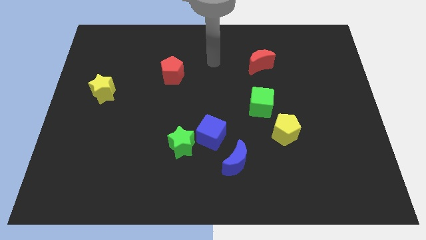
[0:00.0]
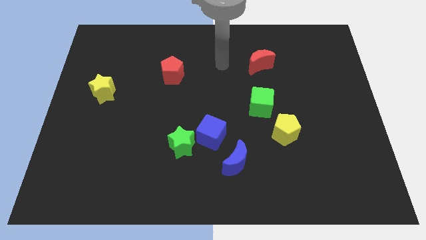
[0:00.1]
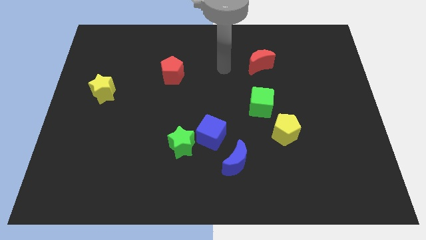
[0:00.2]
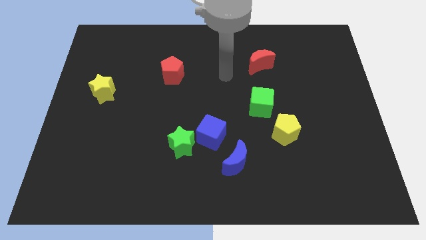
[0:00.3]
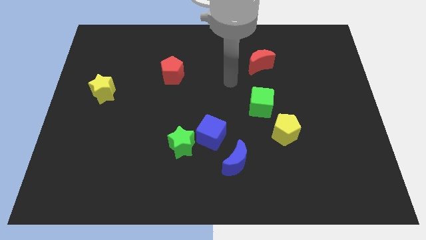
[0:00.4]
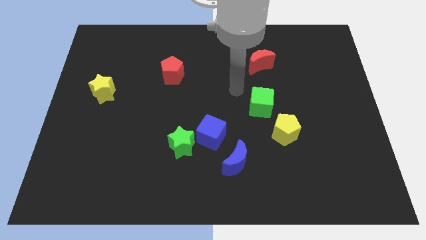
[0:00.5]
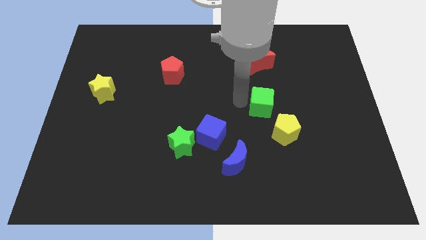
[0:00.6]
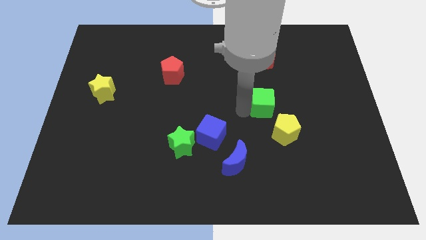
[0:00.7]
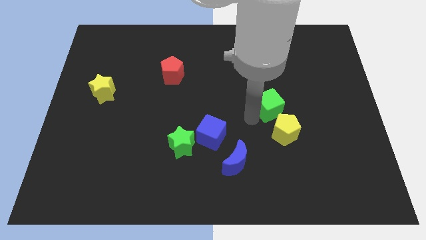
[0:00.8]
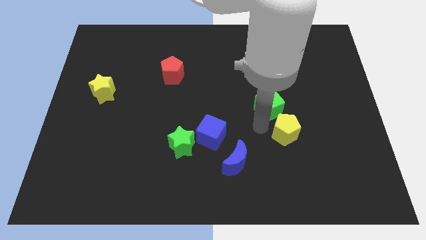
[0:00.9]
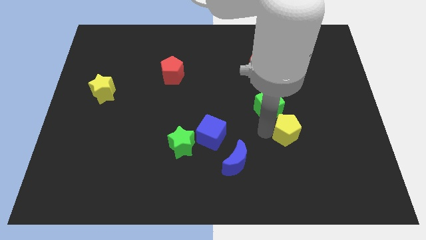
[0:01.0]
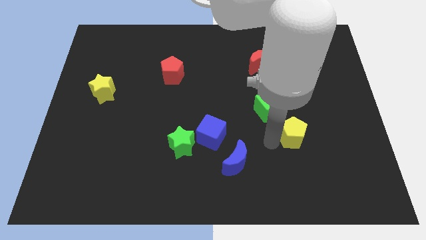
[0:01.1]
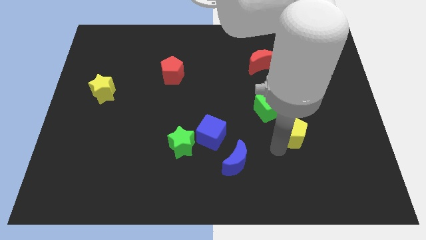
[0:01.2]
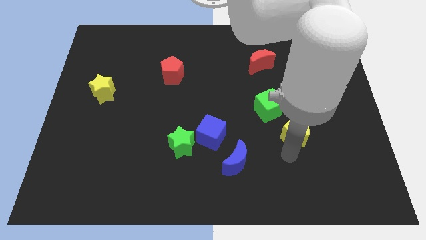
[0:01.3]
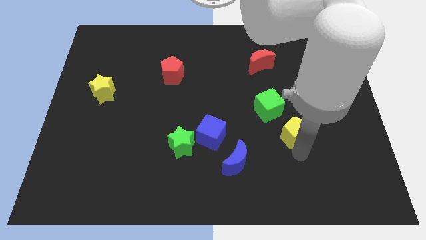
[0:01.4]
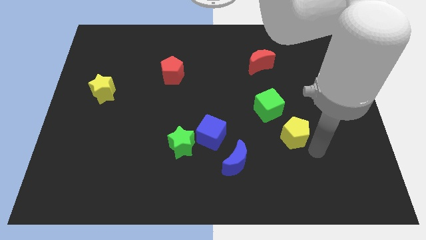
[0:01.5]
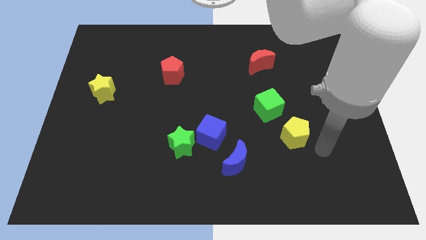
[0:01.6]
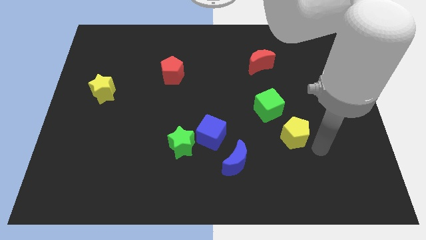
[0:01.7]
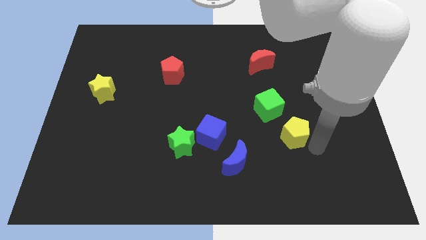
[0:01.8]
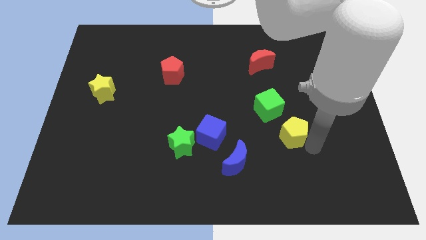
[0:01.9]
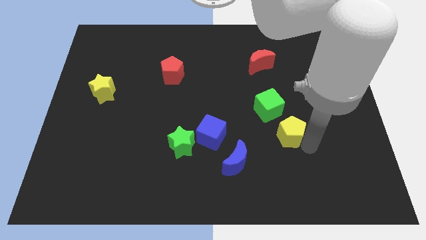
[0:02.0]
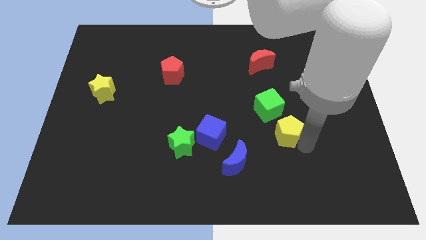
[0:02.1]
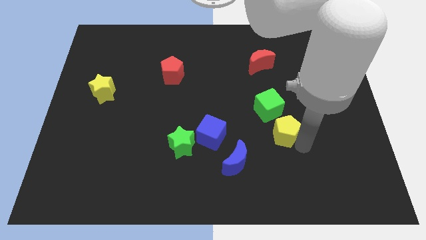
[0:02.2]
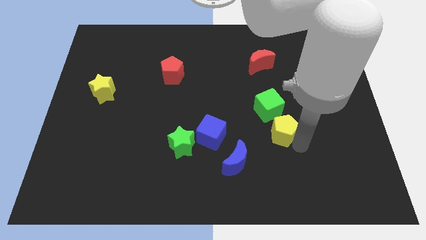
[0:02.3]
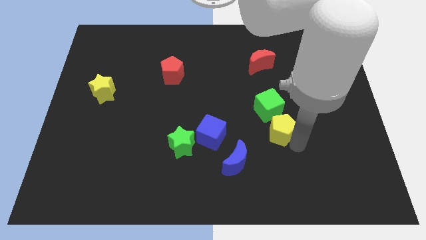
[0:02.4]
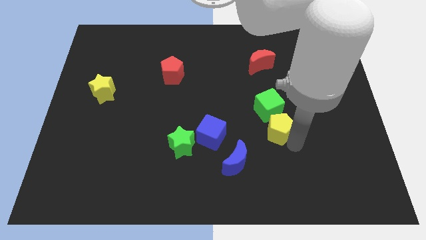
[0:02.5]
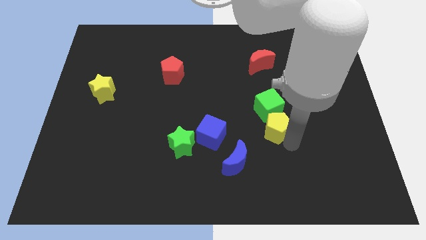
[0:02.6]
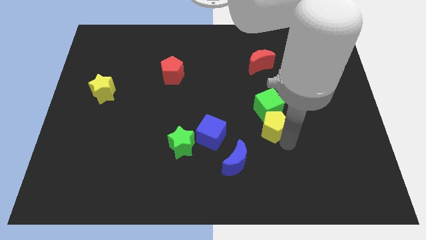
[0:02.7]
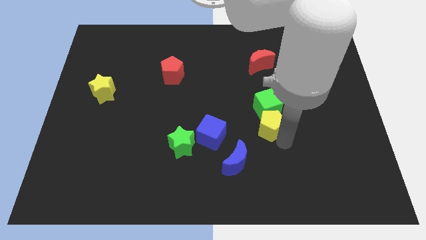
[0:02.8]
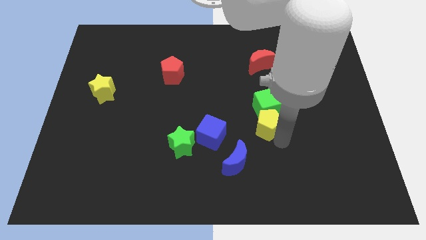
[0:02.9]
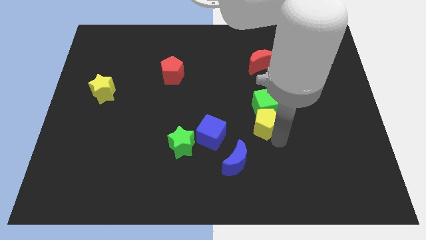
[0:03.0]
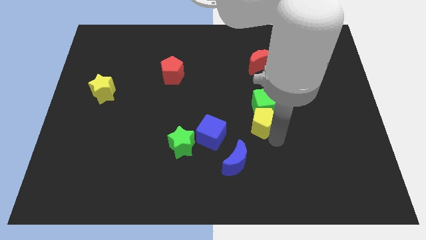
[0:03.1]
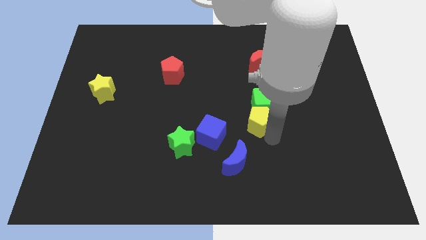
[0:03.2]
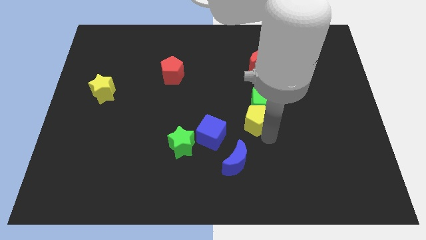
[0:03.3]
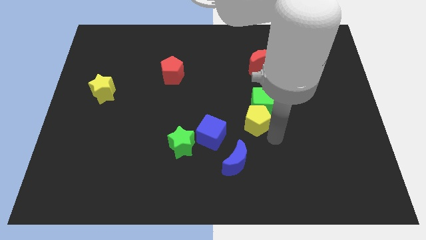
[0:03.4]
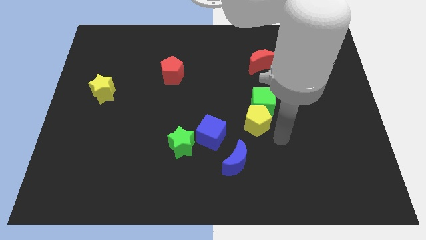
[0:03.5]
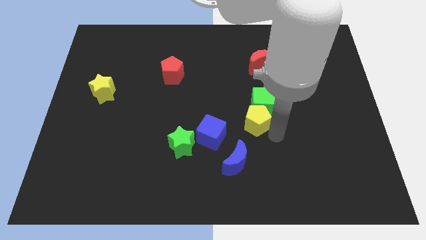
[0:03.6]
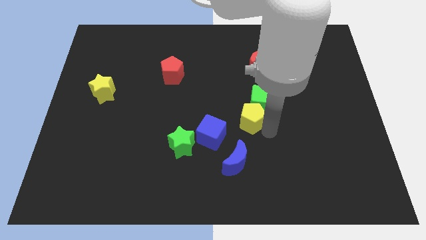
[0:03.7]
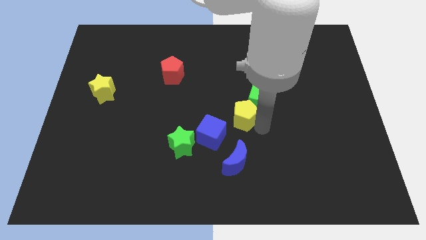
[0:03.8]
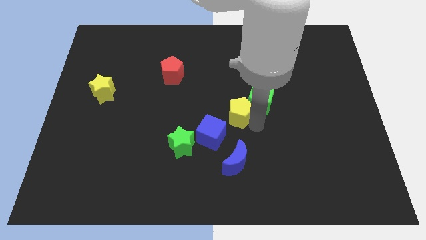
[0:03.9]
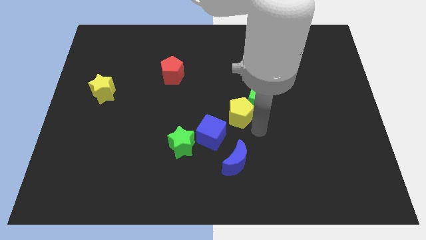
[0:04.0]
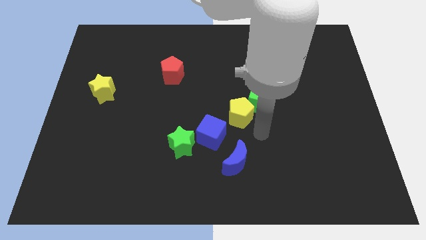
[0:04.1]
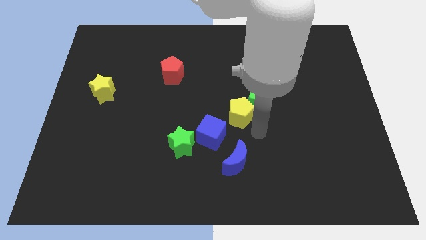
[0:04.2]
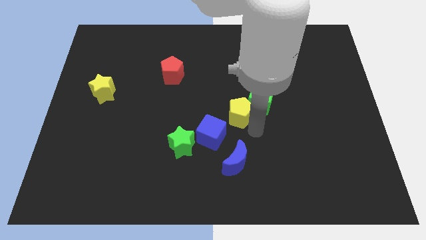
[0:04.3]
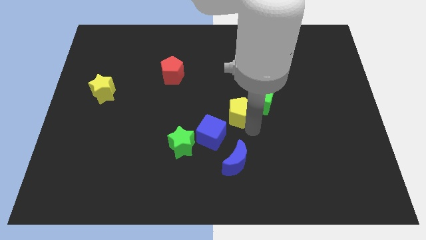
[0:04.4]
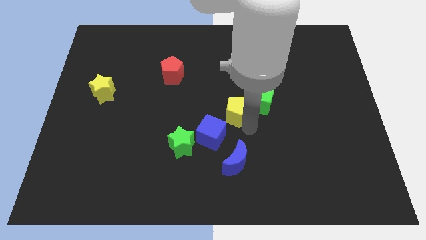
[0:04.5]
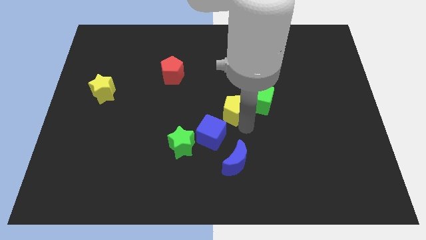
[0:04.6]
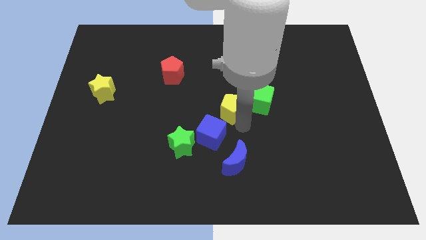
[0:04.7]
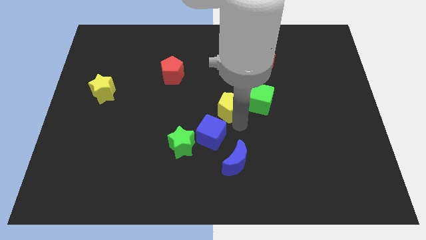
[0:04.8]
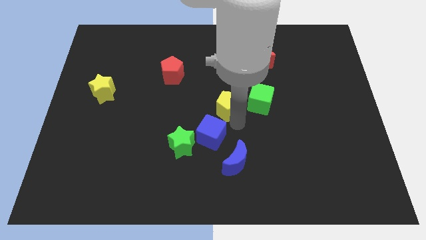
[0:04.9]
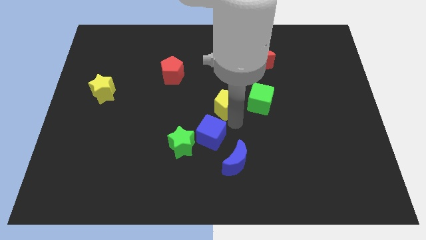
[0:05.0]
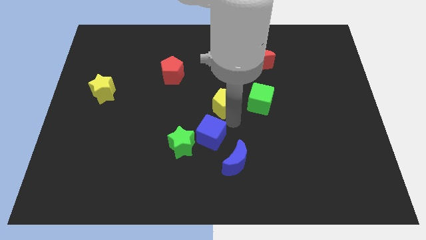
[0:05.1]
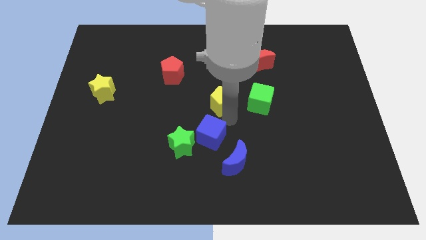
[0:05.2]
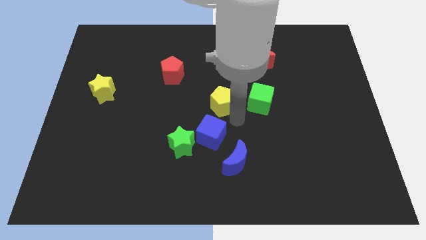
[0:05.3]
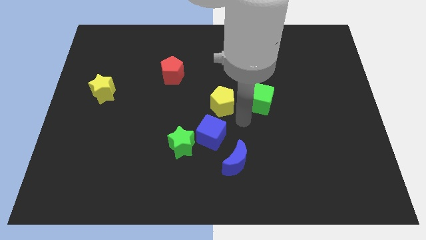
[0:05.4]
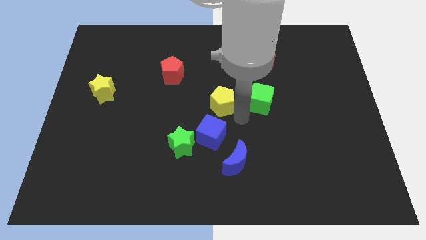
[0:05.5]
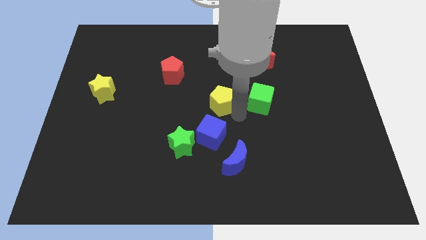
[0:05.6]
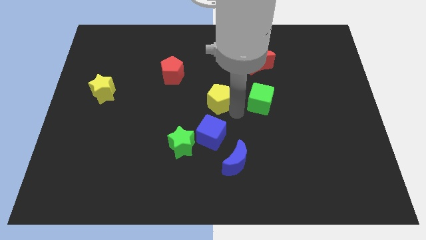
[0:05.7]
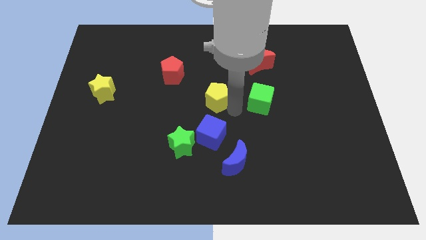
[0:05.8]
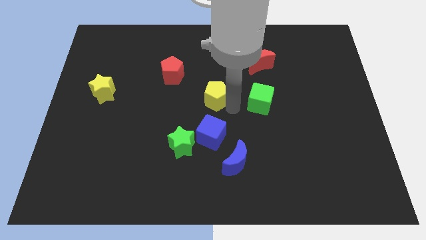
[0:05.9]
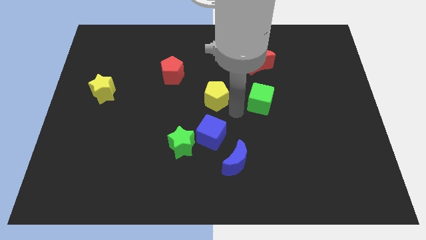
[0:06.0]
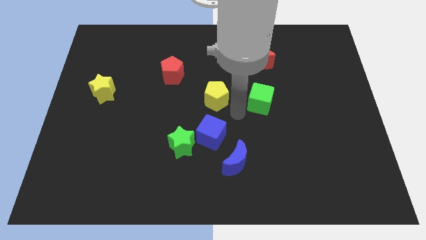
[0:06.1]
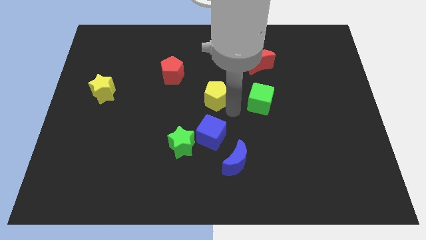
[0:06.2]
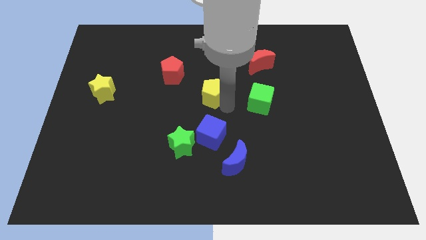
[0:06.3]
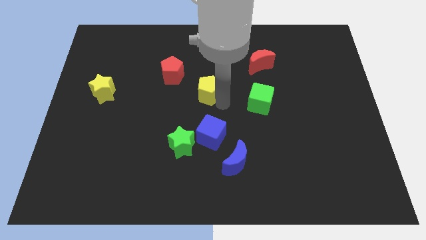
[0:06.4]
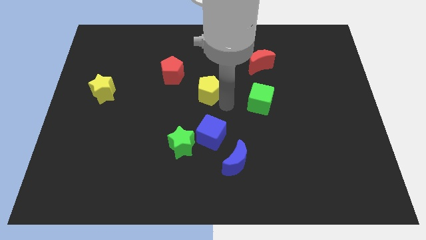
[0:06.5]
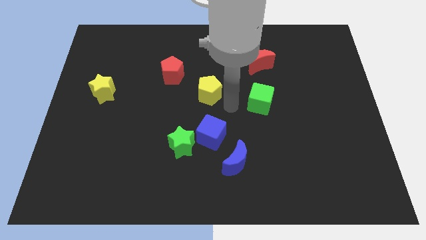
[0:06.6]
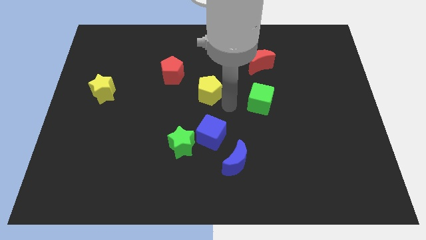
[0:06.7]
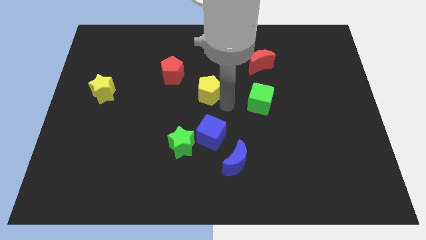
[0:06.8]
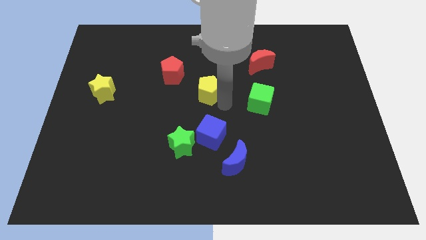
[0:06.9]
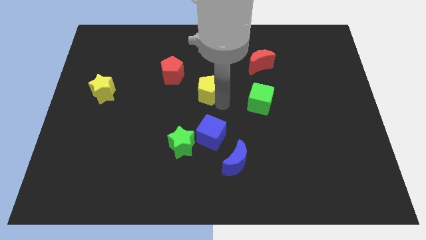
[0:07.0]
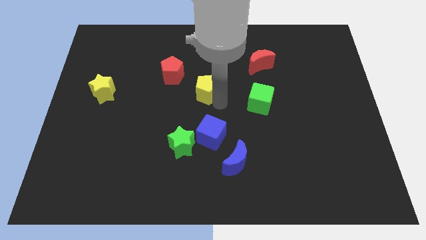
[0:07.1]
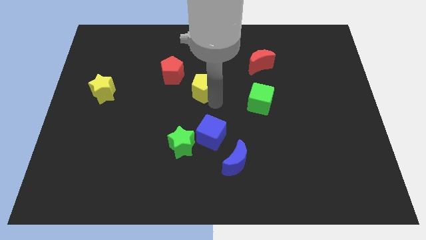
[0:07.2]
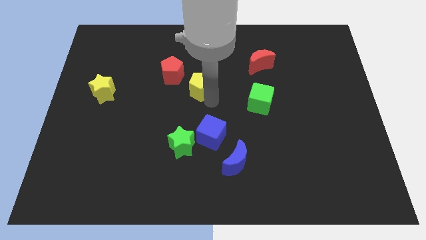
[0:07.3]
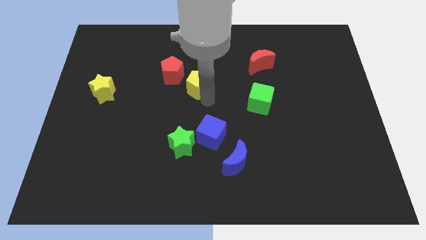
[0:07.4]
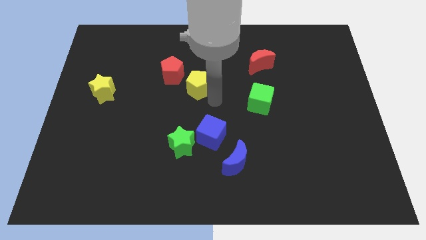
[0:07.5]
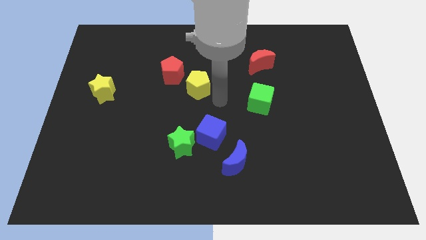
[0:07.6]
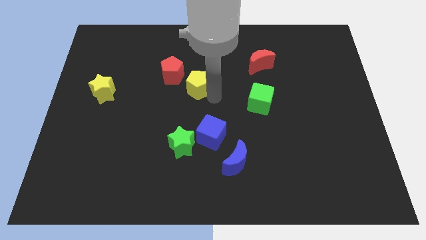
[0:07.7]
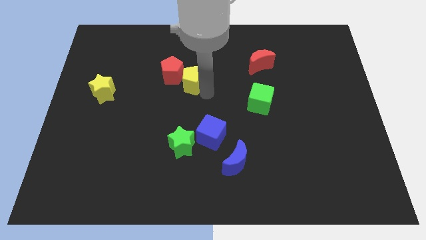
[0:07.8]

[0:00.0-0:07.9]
slide the yellow pentagon next to the red pentagon
